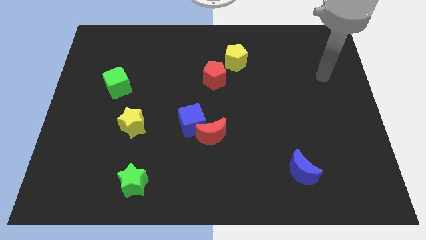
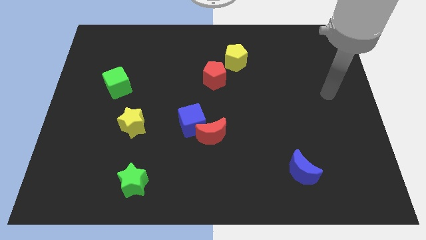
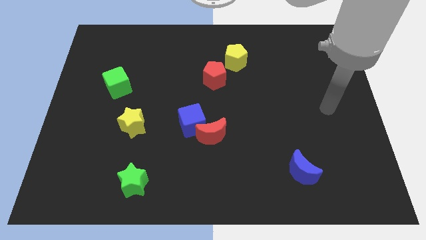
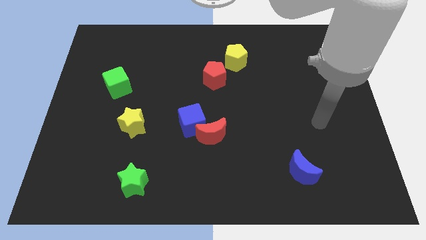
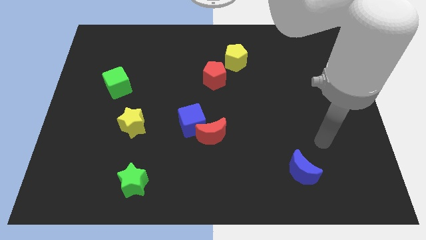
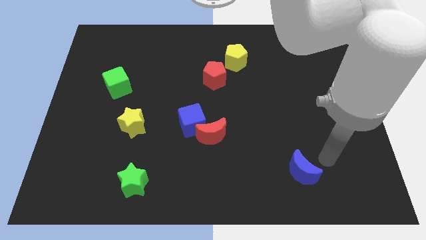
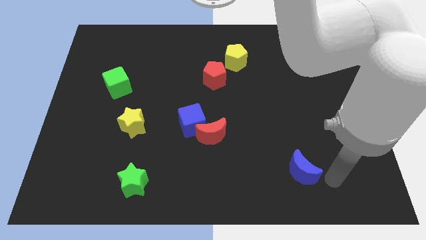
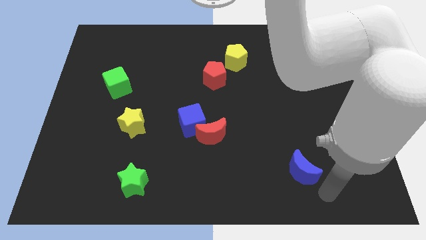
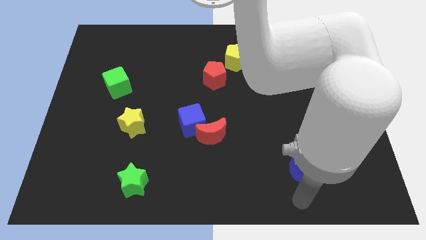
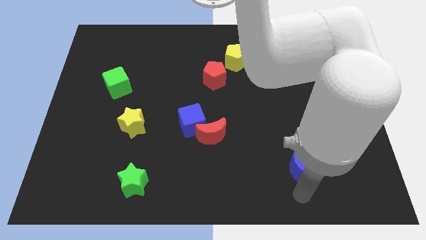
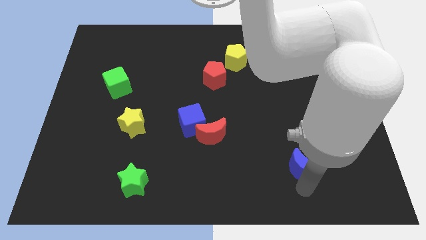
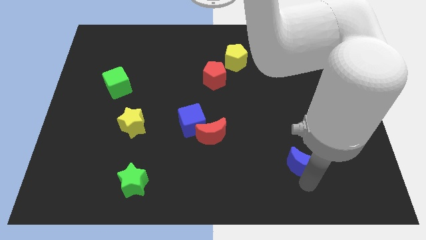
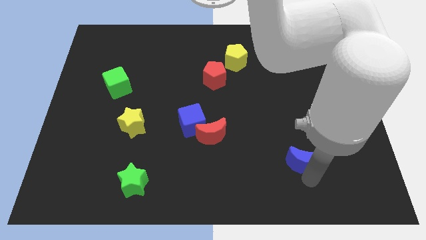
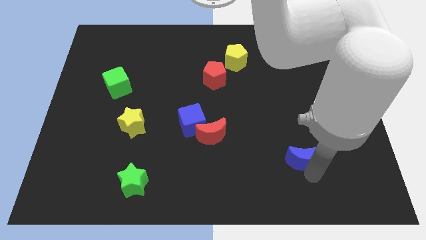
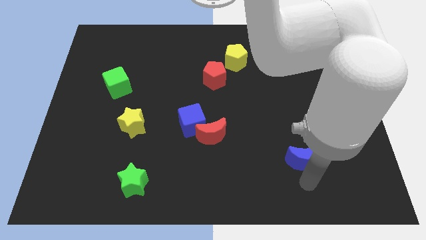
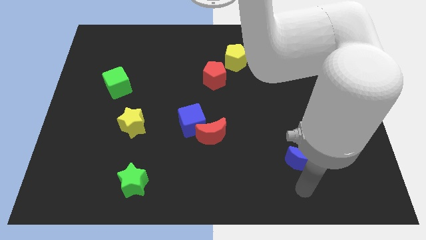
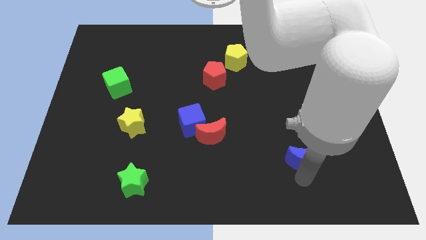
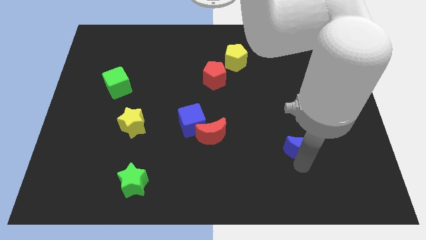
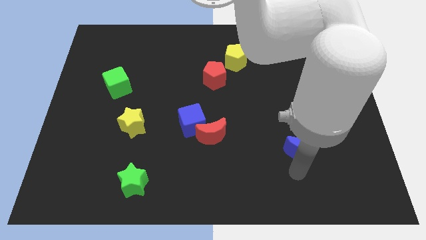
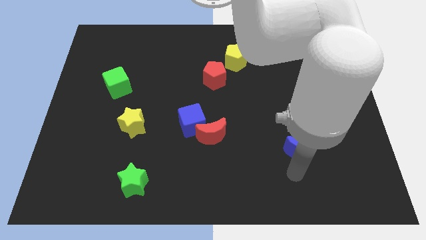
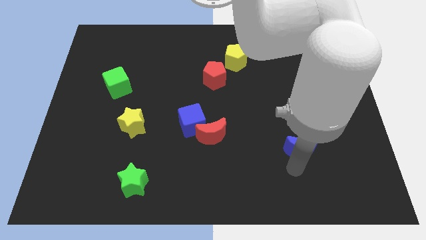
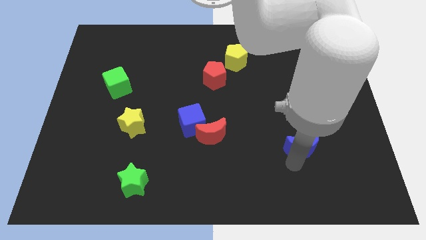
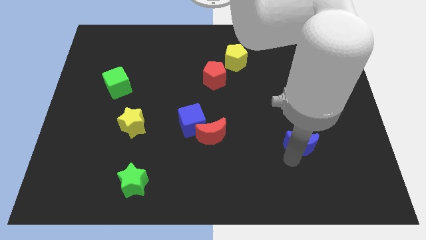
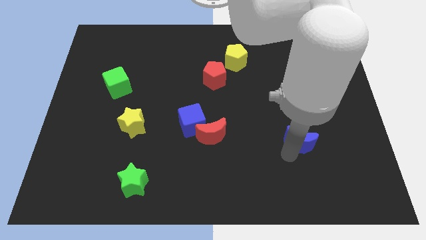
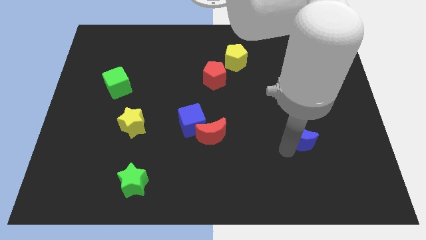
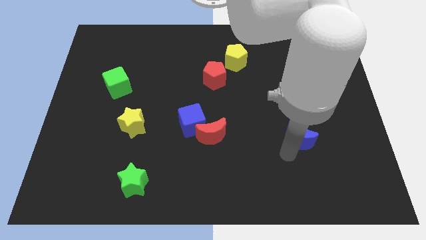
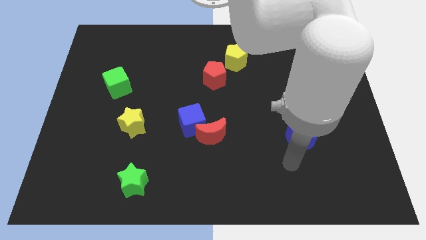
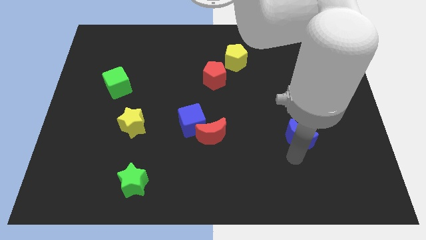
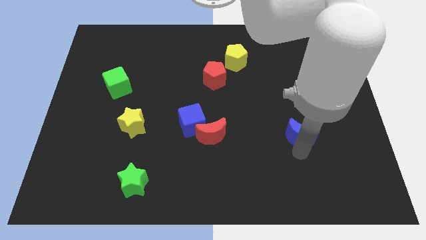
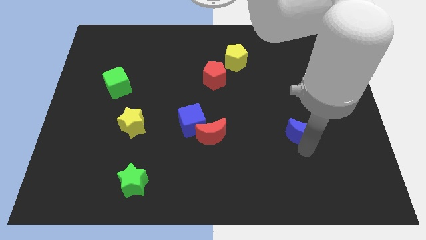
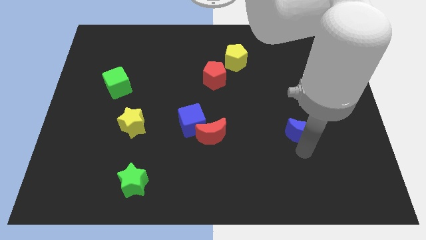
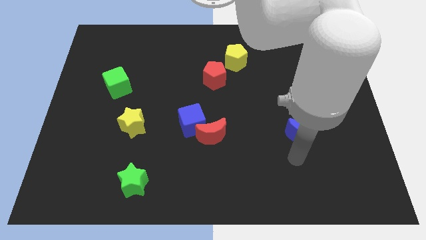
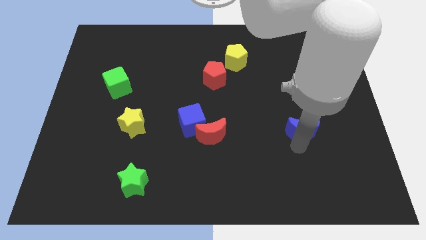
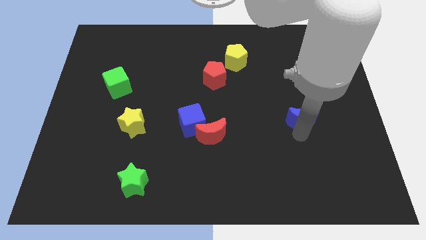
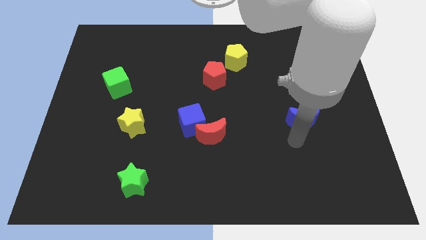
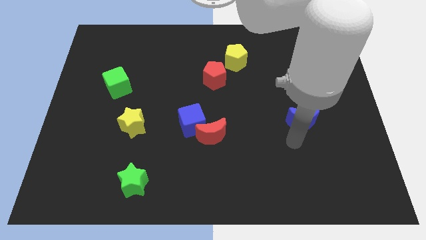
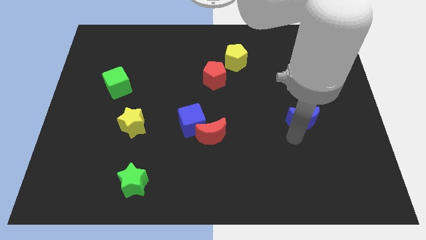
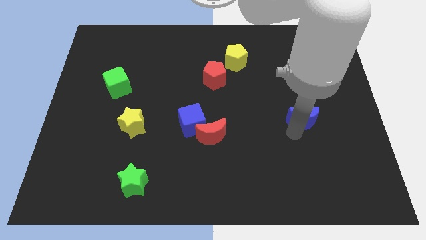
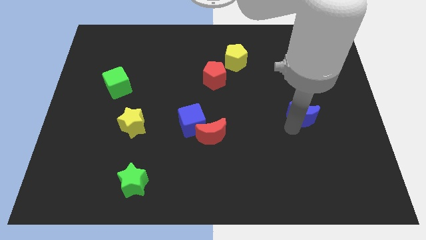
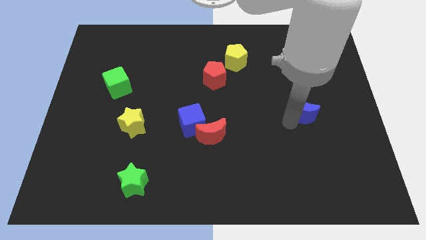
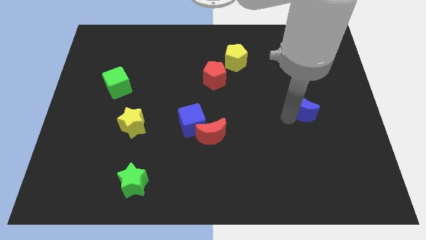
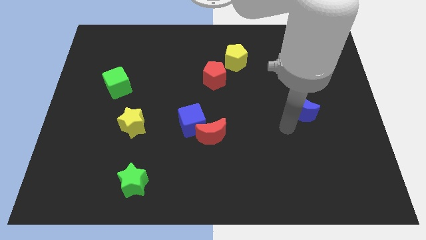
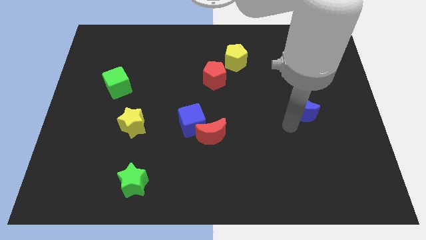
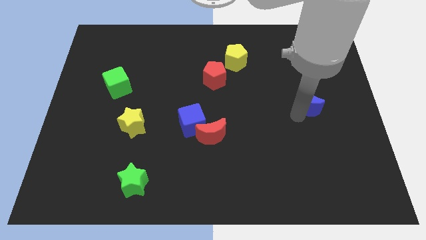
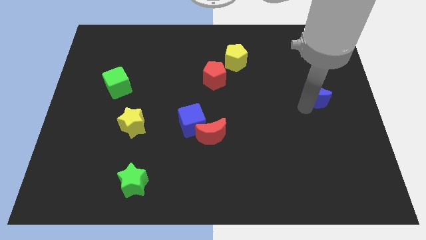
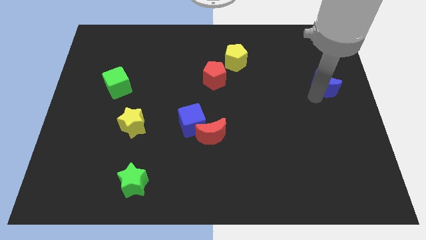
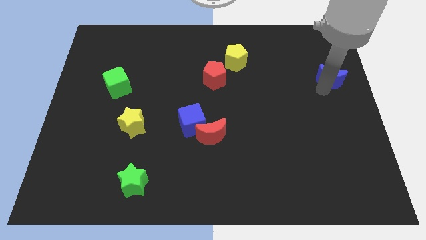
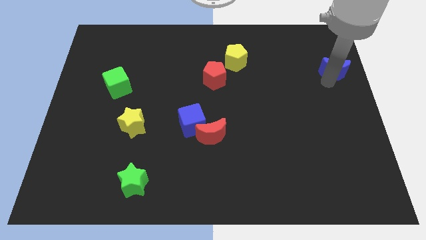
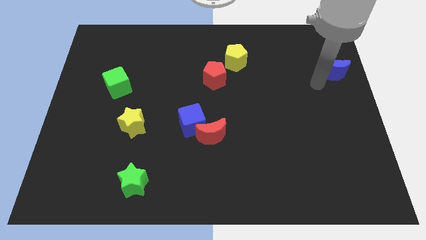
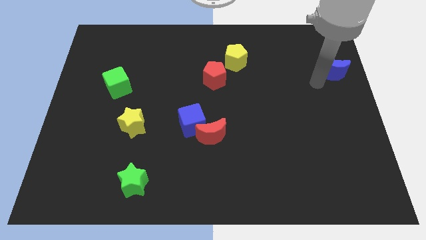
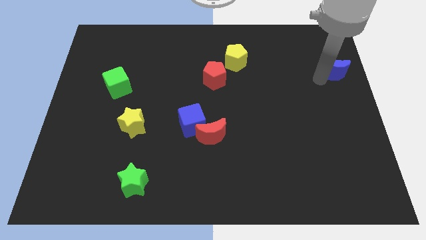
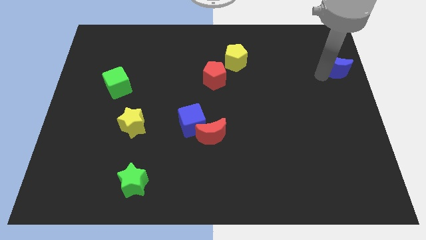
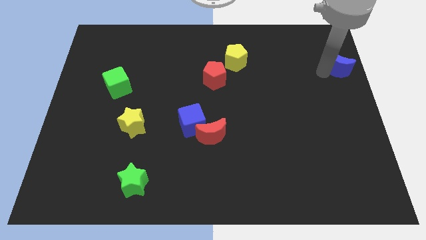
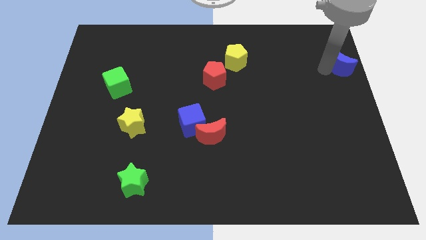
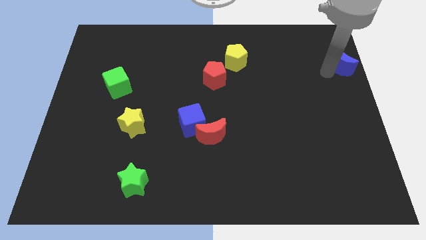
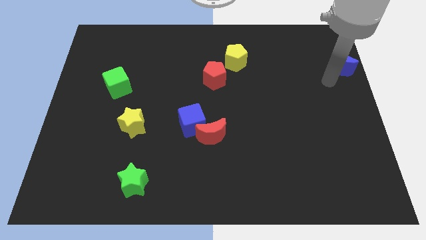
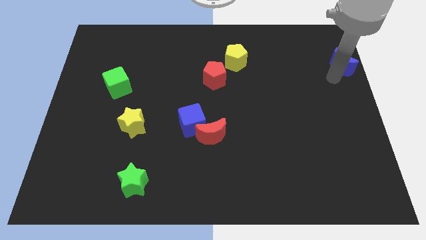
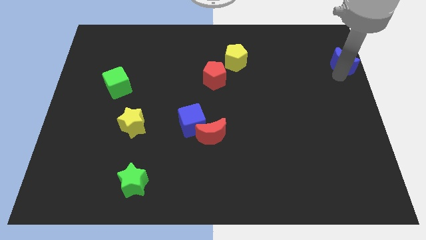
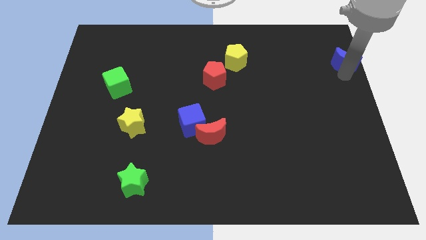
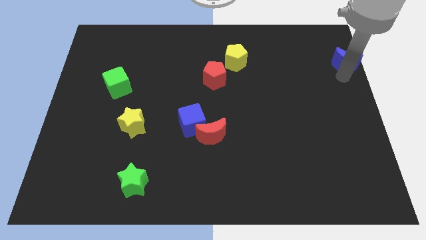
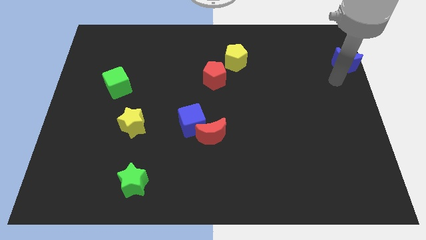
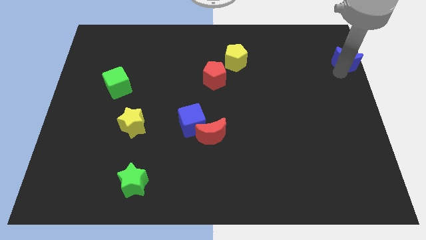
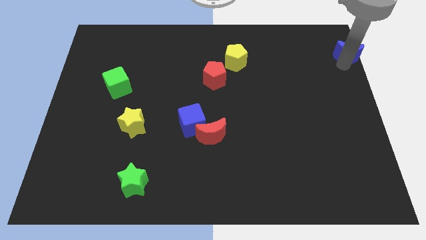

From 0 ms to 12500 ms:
slide the blue moon to the top right corner

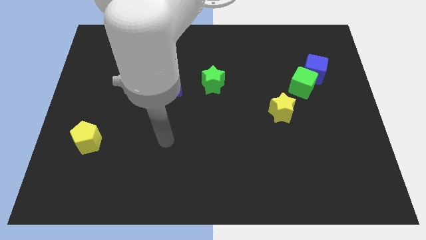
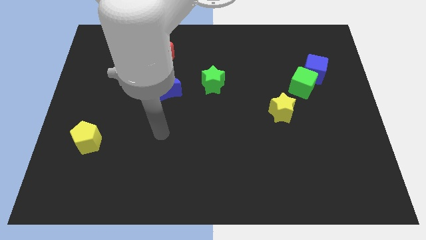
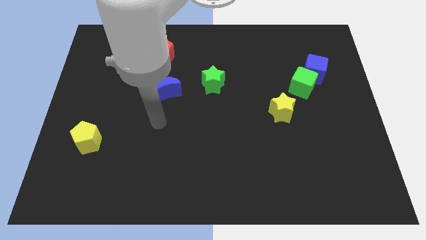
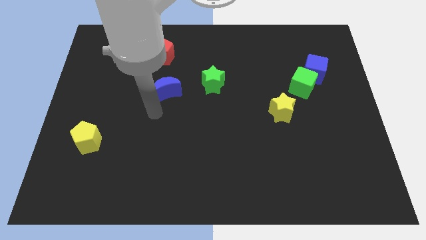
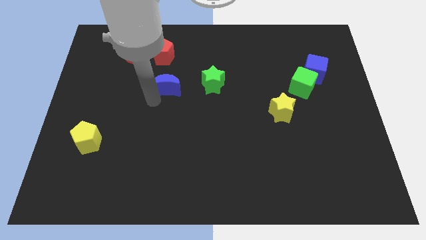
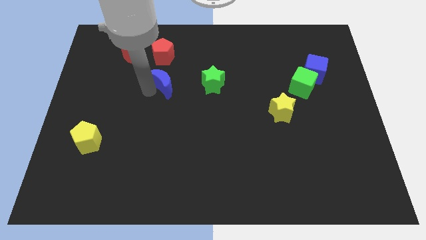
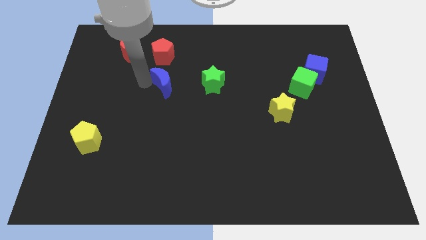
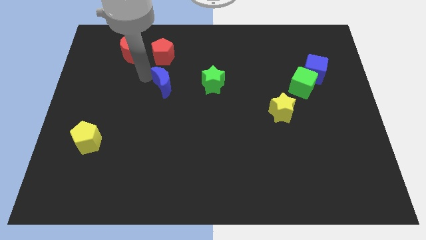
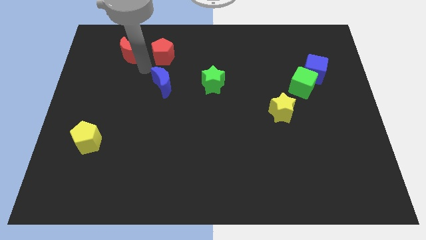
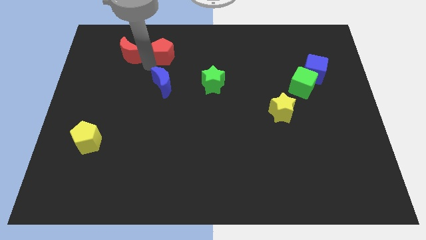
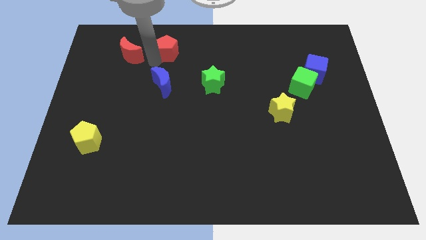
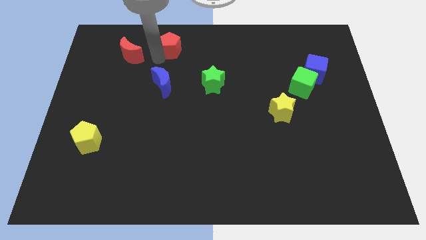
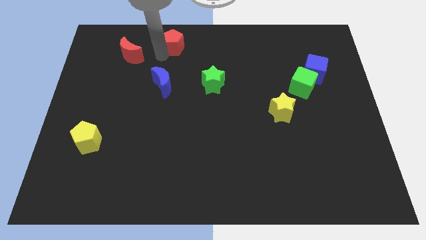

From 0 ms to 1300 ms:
slide the red pentagon to the top side
